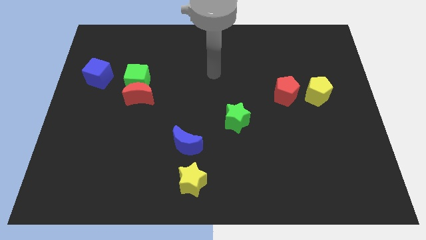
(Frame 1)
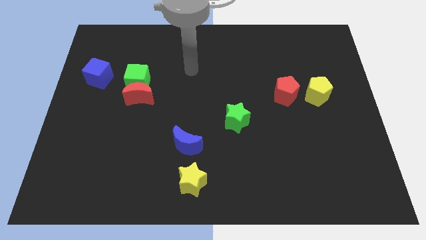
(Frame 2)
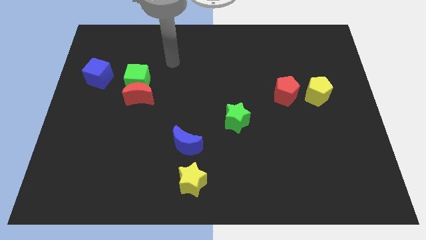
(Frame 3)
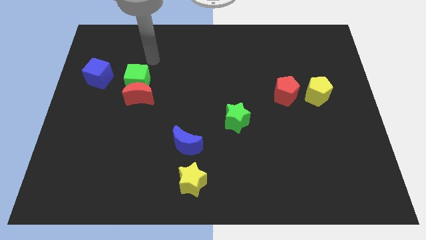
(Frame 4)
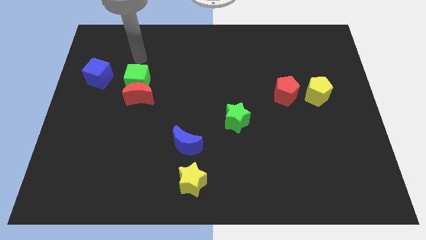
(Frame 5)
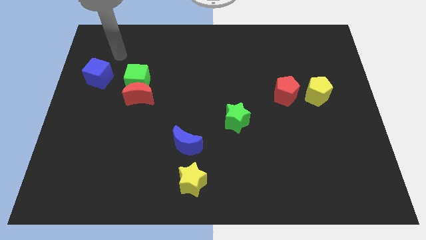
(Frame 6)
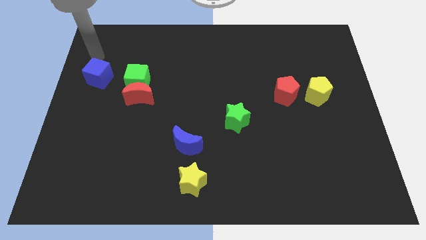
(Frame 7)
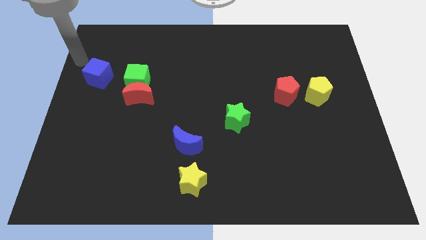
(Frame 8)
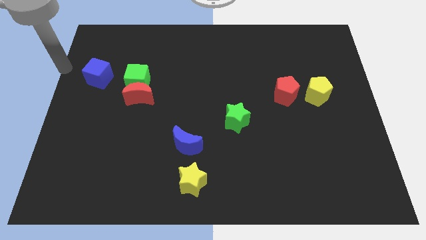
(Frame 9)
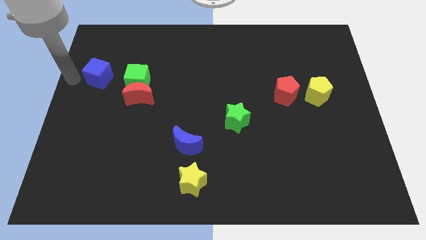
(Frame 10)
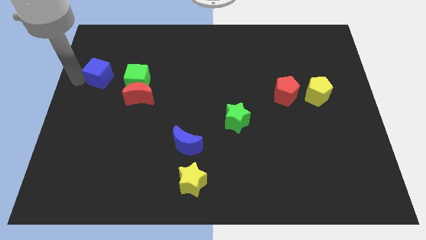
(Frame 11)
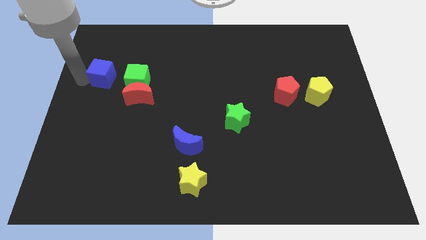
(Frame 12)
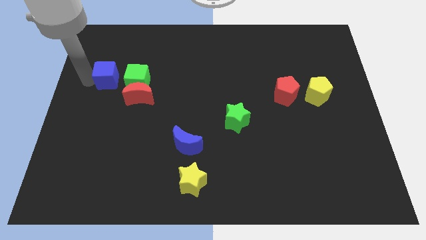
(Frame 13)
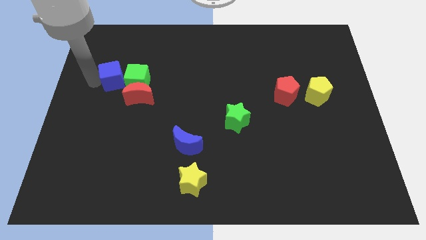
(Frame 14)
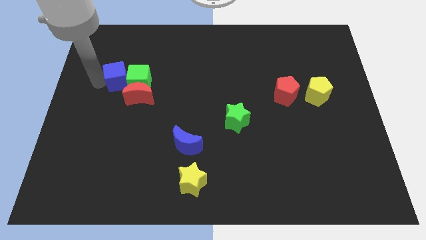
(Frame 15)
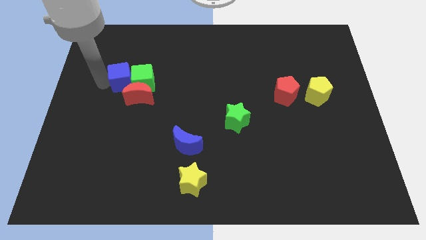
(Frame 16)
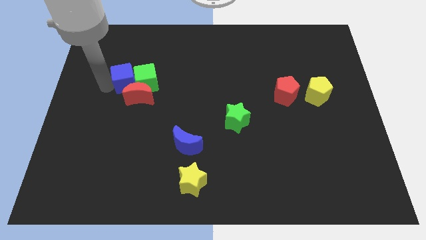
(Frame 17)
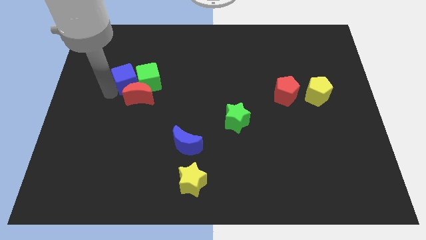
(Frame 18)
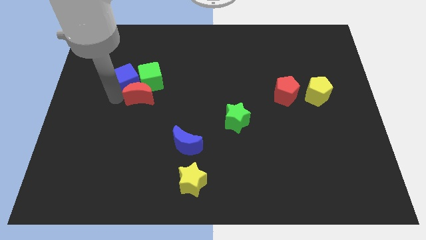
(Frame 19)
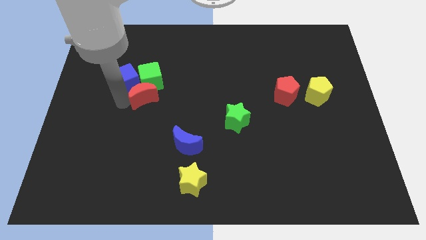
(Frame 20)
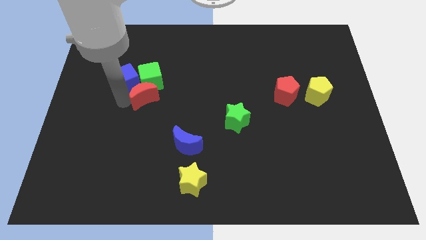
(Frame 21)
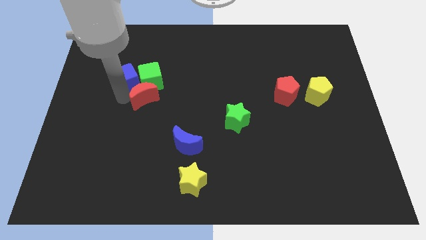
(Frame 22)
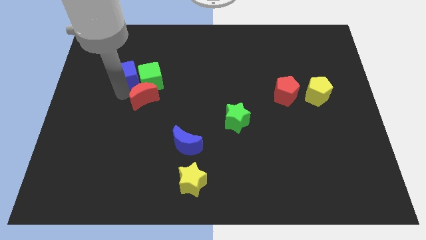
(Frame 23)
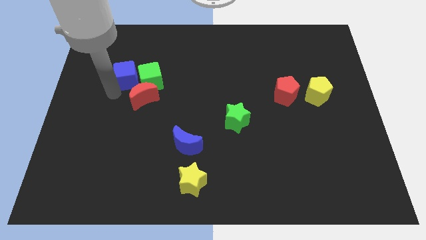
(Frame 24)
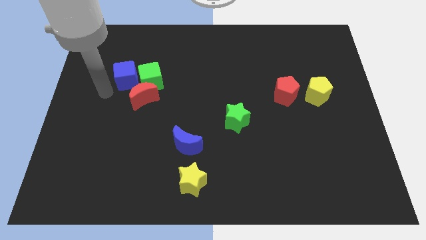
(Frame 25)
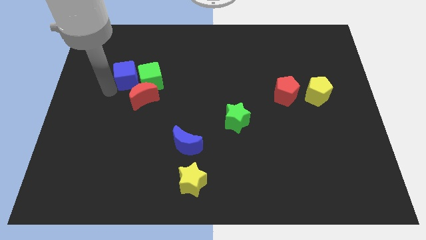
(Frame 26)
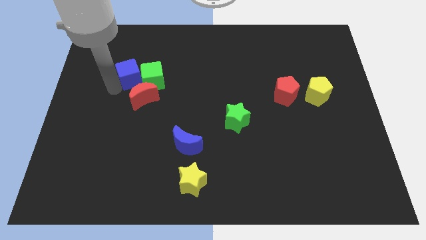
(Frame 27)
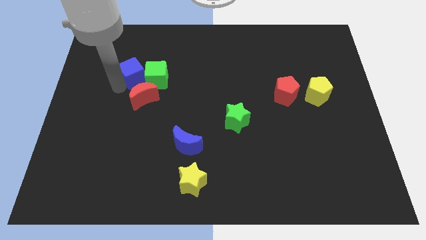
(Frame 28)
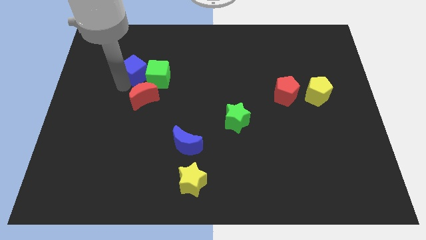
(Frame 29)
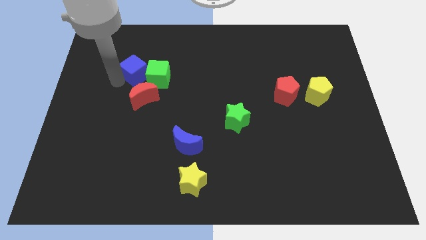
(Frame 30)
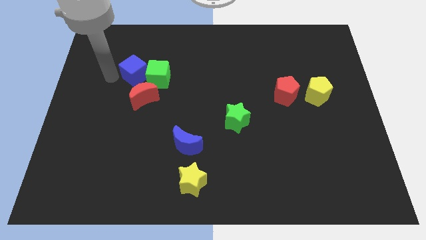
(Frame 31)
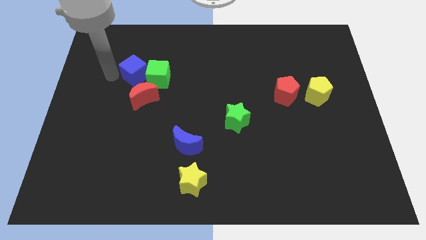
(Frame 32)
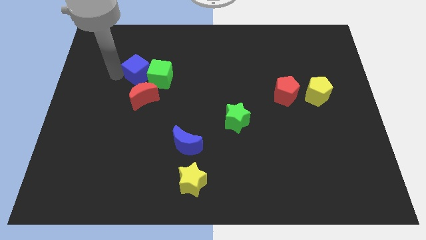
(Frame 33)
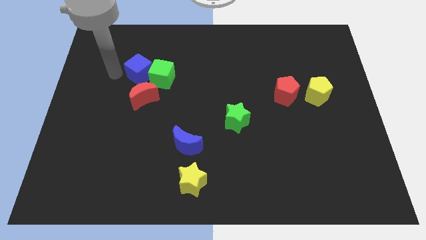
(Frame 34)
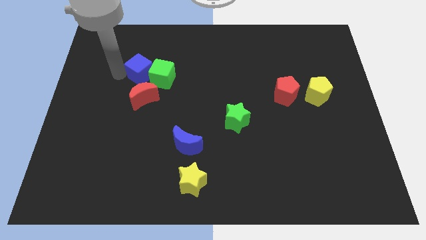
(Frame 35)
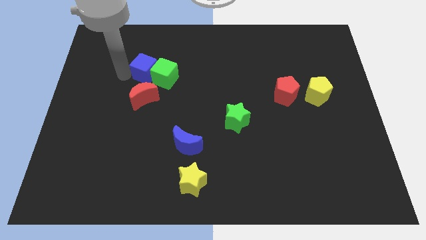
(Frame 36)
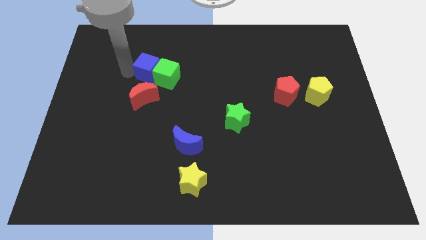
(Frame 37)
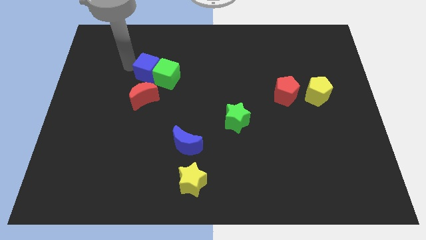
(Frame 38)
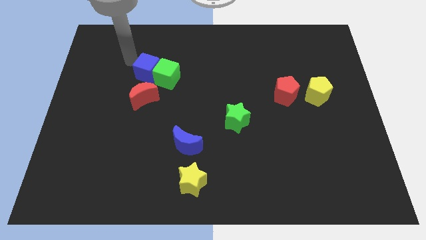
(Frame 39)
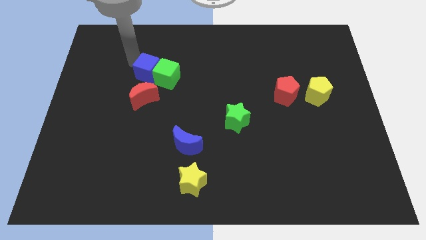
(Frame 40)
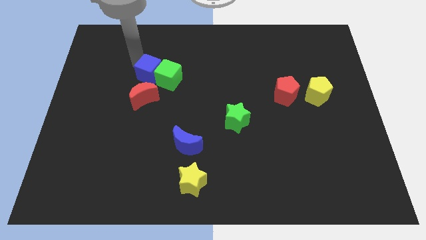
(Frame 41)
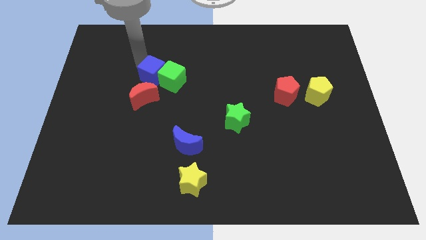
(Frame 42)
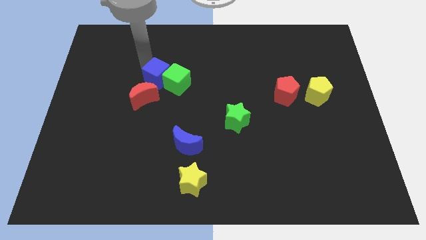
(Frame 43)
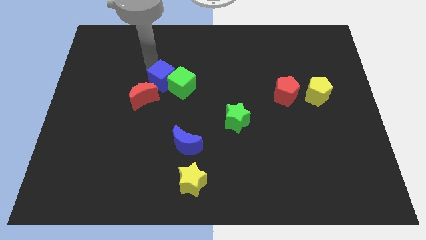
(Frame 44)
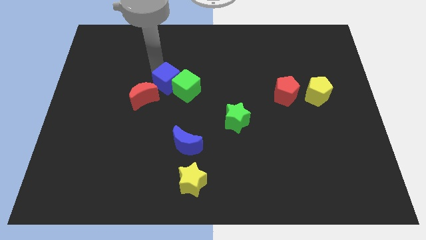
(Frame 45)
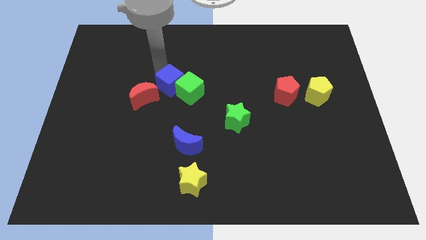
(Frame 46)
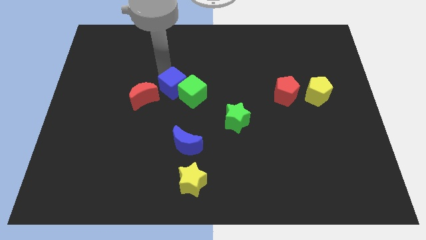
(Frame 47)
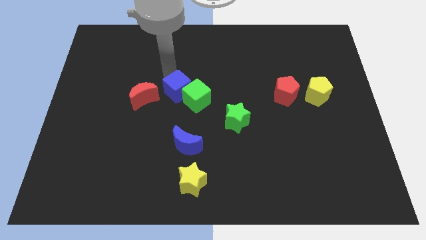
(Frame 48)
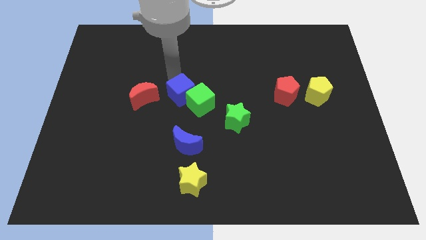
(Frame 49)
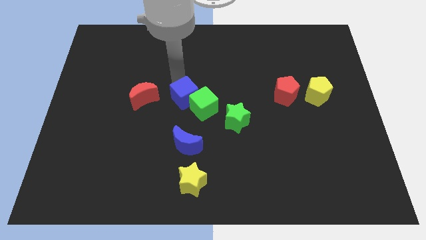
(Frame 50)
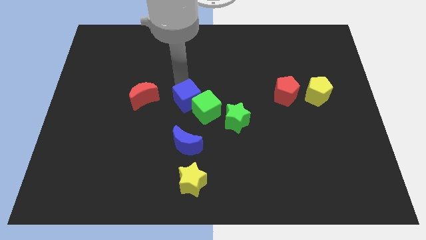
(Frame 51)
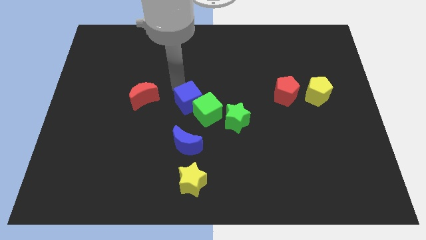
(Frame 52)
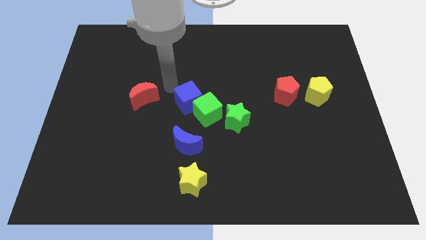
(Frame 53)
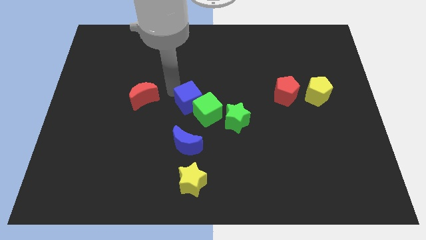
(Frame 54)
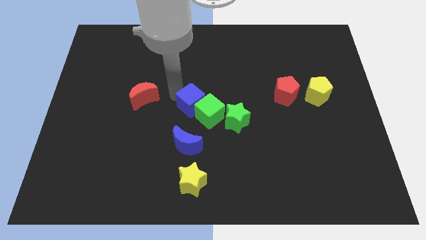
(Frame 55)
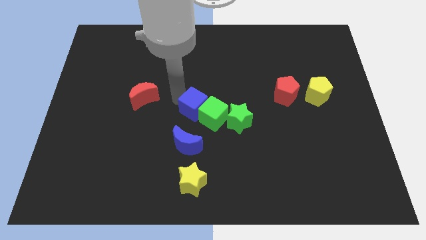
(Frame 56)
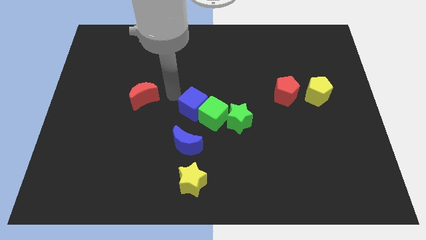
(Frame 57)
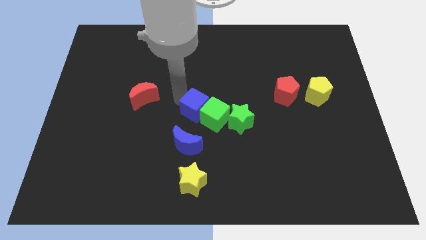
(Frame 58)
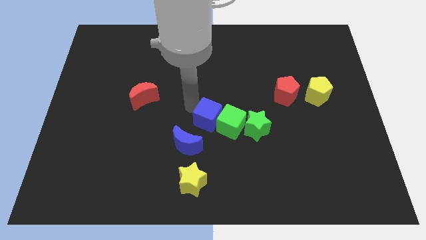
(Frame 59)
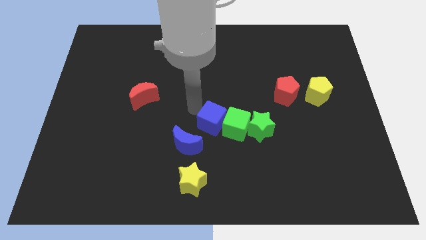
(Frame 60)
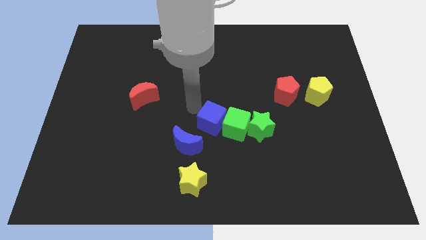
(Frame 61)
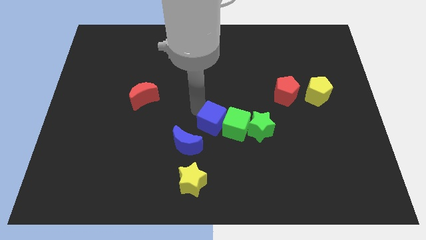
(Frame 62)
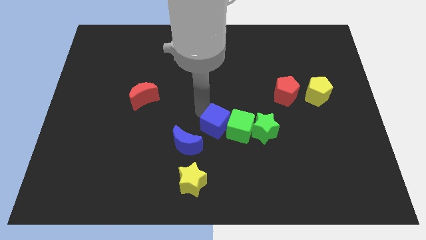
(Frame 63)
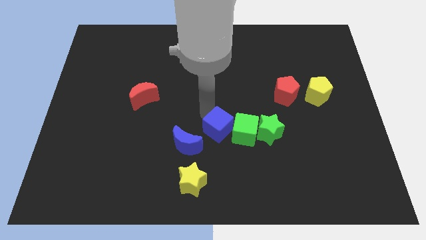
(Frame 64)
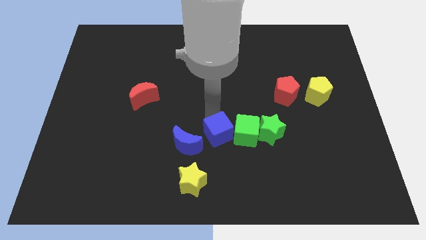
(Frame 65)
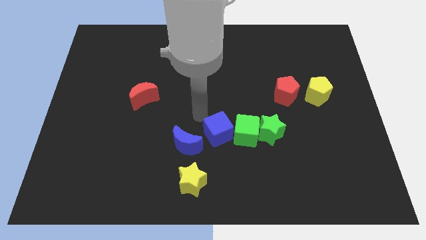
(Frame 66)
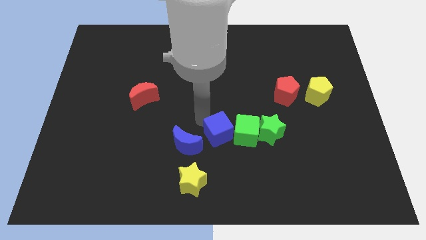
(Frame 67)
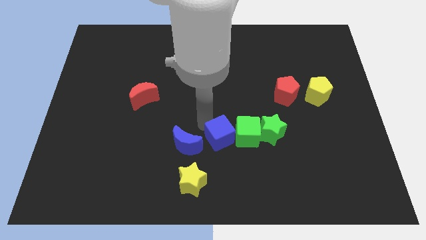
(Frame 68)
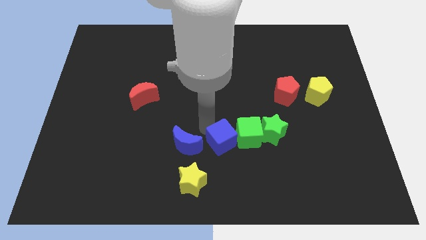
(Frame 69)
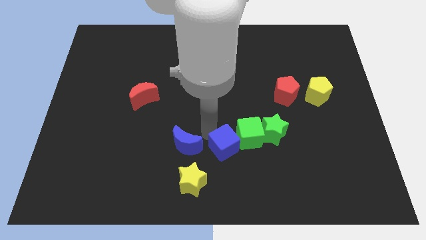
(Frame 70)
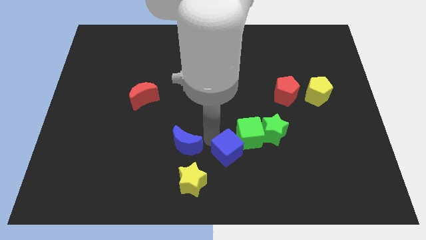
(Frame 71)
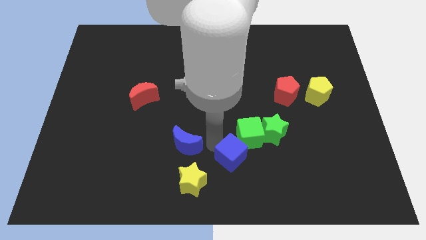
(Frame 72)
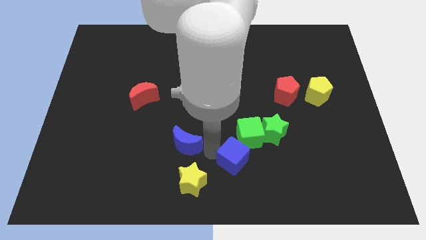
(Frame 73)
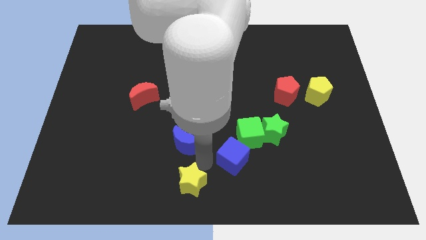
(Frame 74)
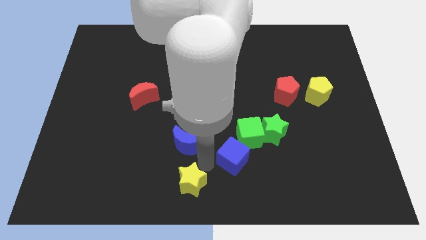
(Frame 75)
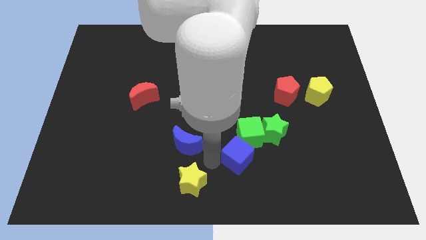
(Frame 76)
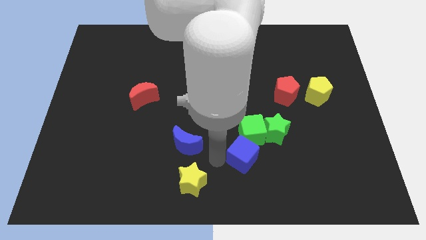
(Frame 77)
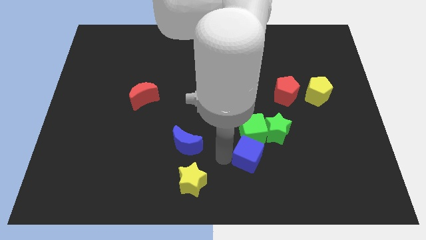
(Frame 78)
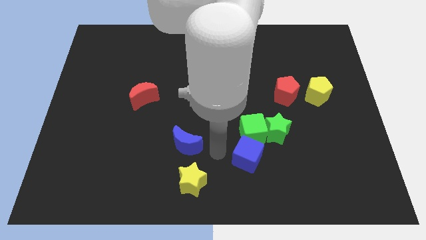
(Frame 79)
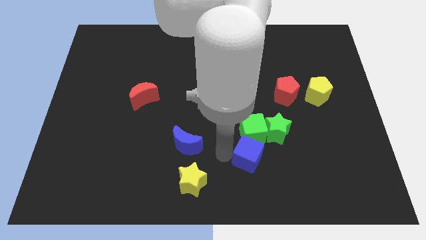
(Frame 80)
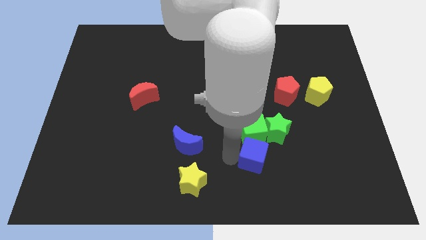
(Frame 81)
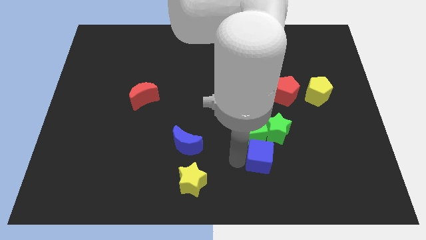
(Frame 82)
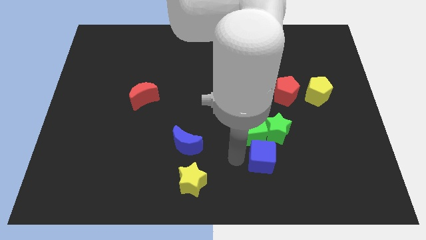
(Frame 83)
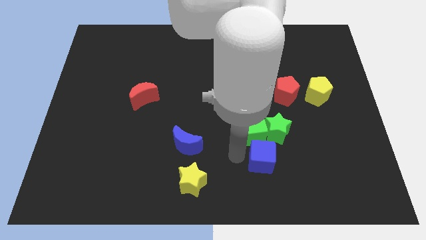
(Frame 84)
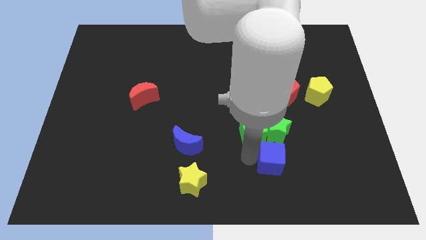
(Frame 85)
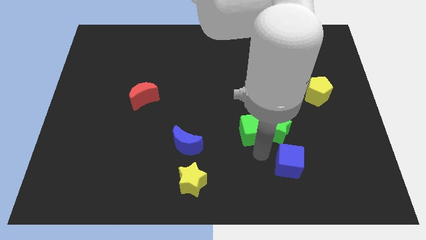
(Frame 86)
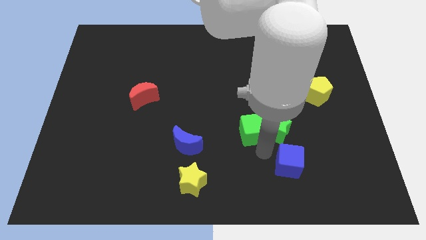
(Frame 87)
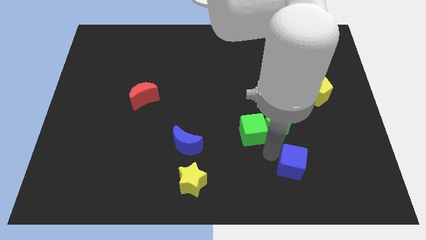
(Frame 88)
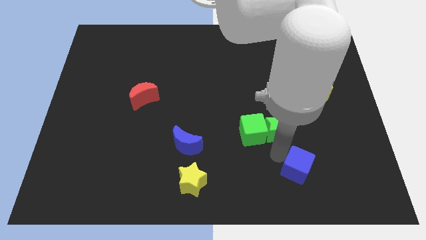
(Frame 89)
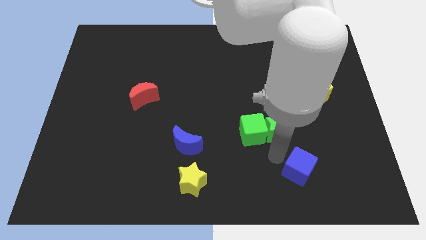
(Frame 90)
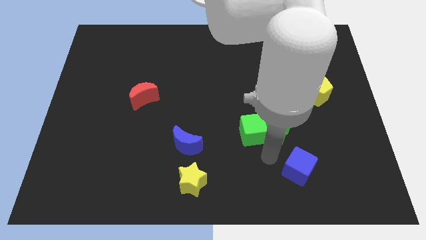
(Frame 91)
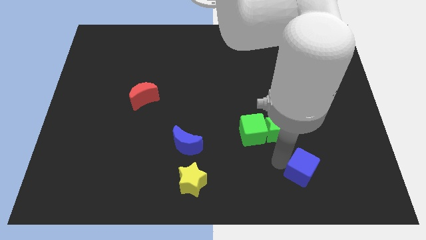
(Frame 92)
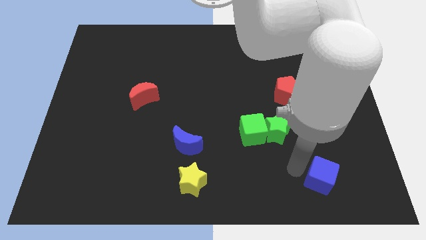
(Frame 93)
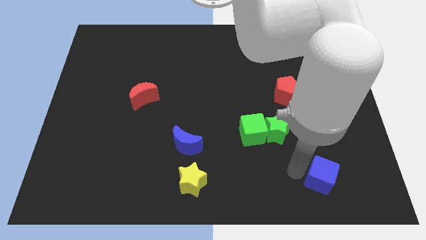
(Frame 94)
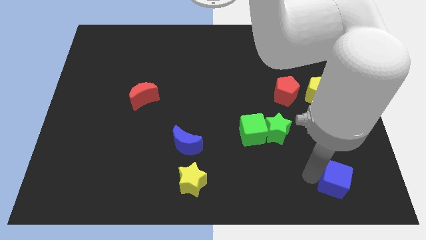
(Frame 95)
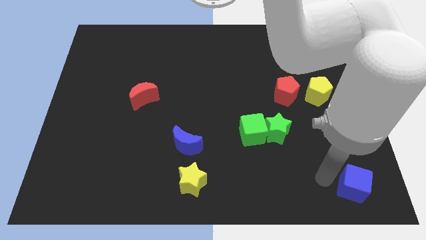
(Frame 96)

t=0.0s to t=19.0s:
slide the blue cube to the bottom right
